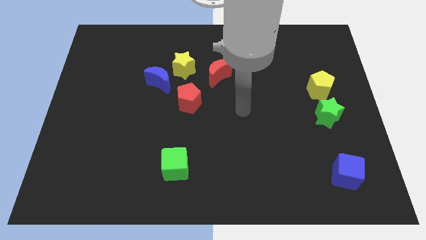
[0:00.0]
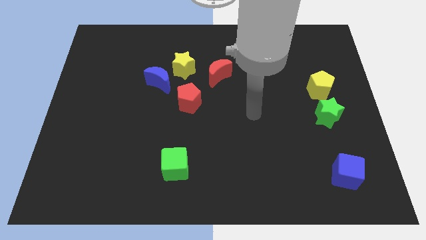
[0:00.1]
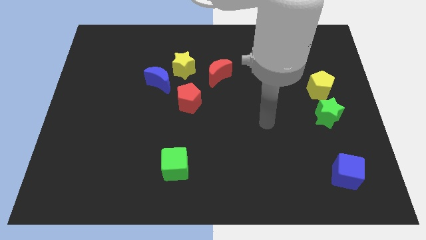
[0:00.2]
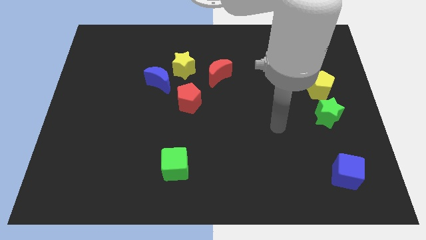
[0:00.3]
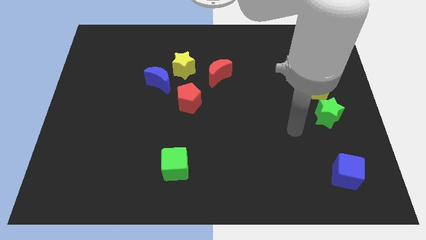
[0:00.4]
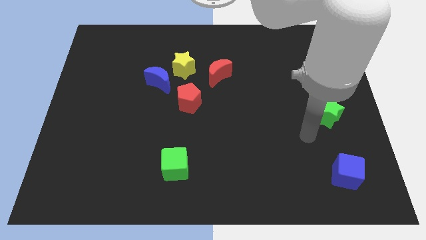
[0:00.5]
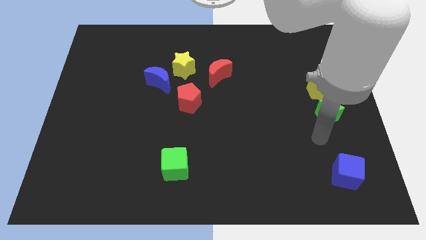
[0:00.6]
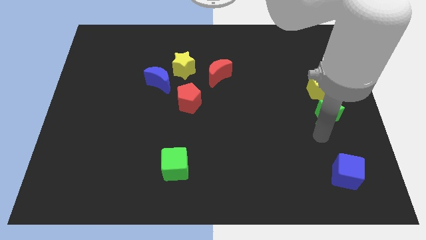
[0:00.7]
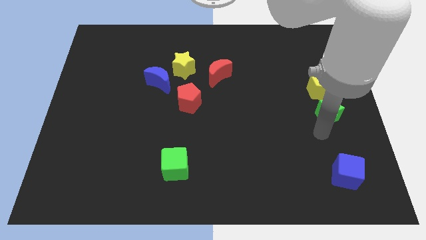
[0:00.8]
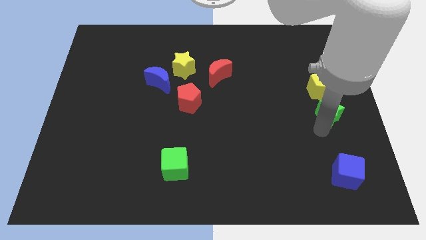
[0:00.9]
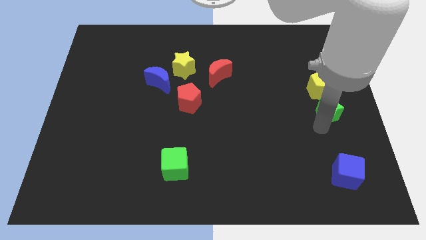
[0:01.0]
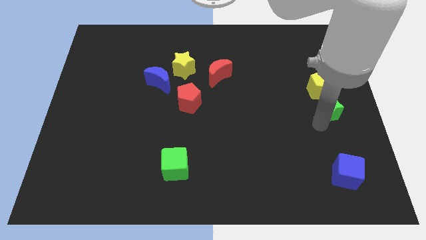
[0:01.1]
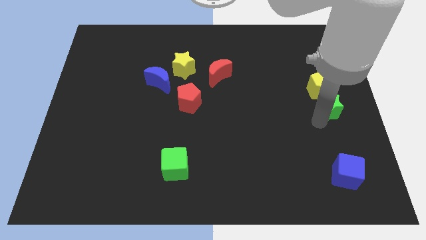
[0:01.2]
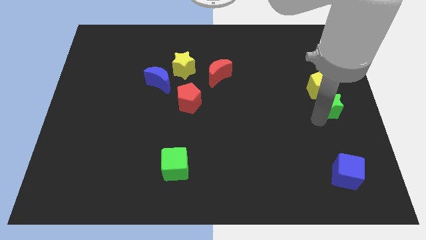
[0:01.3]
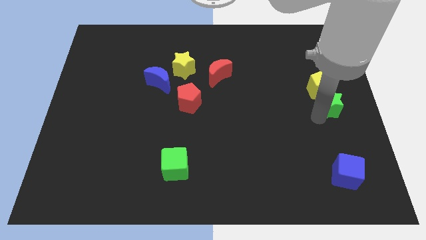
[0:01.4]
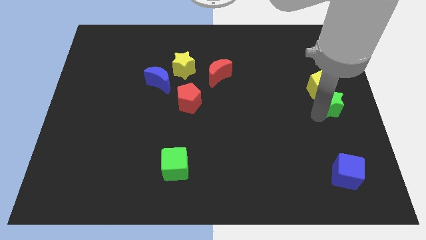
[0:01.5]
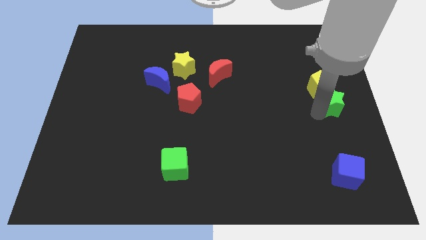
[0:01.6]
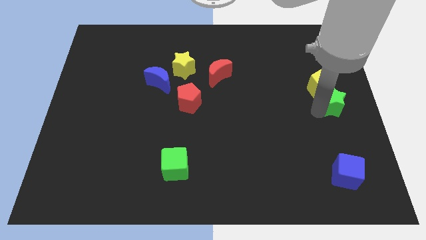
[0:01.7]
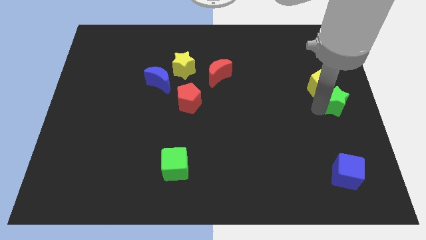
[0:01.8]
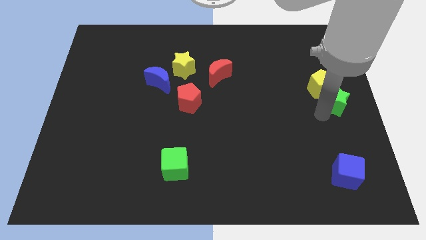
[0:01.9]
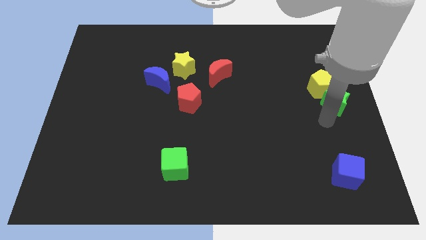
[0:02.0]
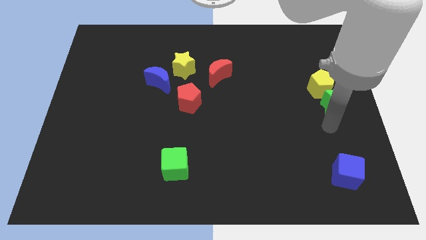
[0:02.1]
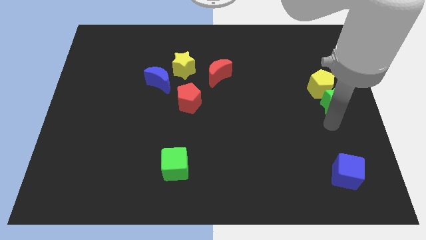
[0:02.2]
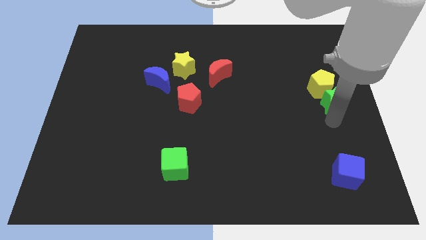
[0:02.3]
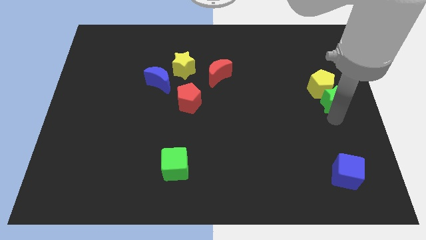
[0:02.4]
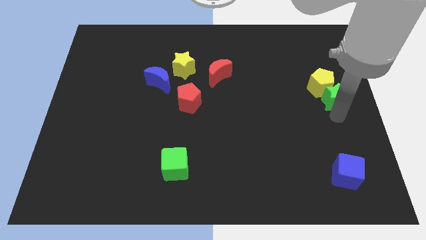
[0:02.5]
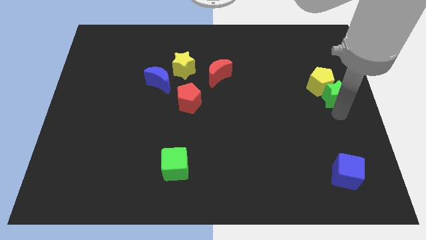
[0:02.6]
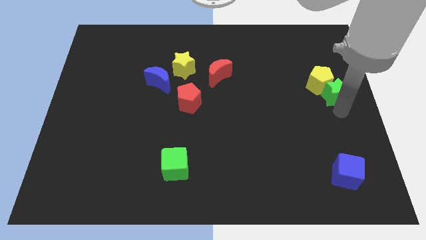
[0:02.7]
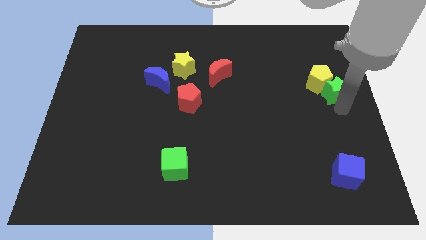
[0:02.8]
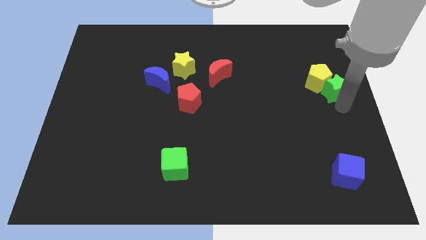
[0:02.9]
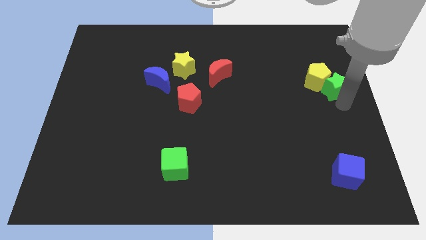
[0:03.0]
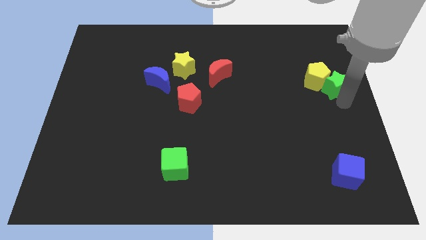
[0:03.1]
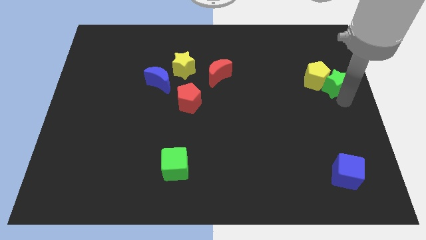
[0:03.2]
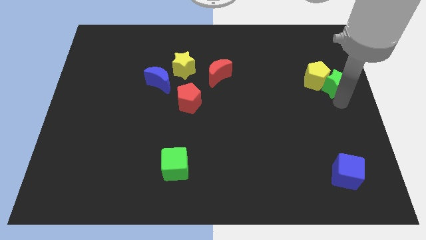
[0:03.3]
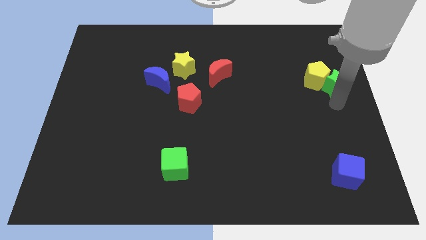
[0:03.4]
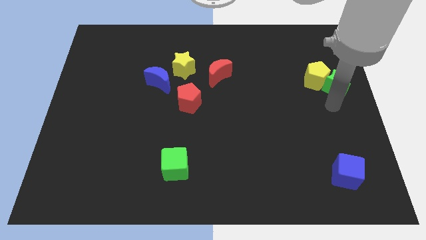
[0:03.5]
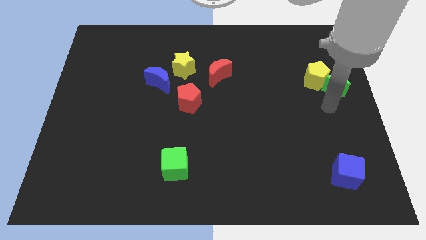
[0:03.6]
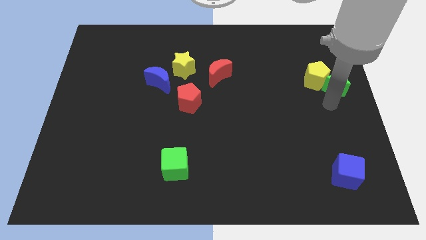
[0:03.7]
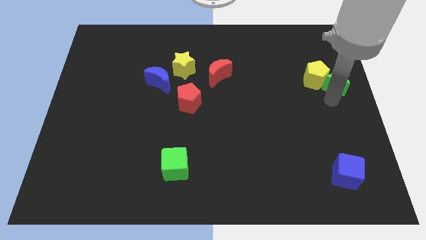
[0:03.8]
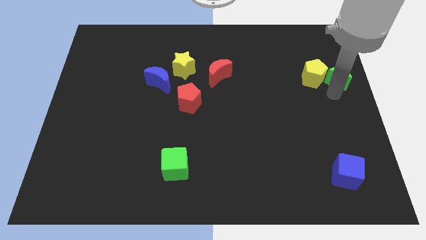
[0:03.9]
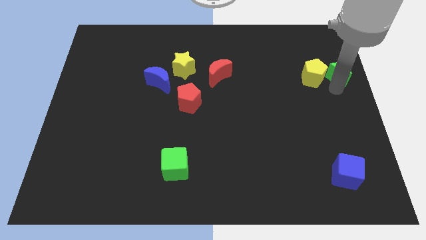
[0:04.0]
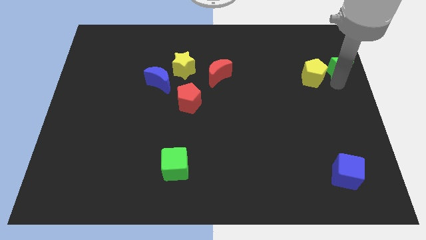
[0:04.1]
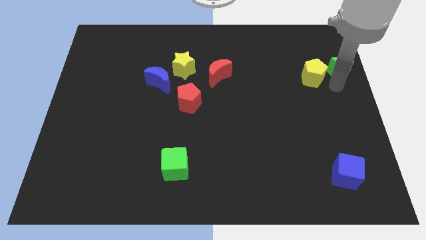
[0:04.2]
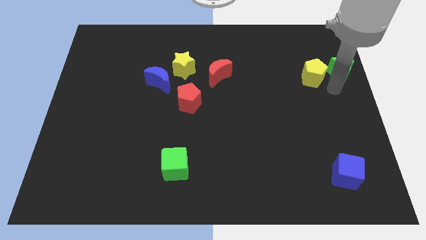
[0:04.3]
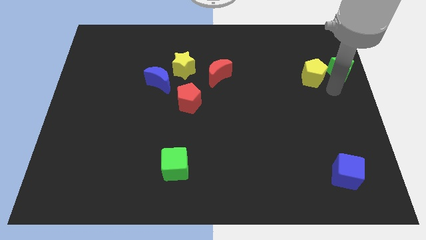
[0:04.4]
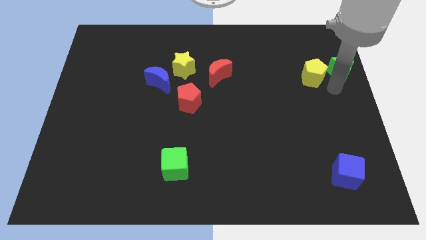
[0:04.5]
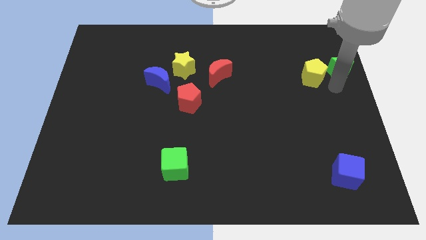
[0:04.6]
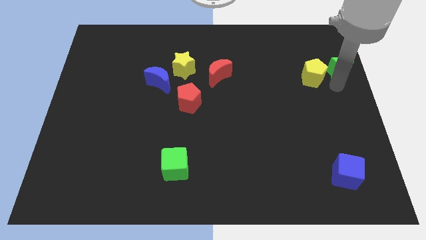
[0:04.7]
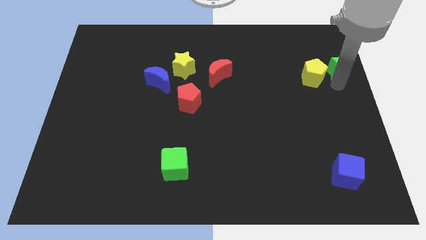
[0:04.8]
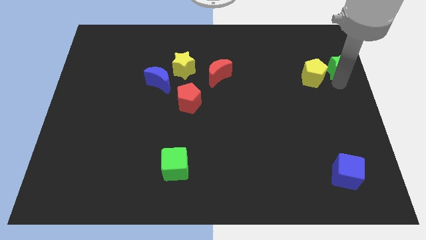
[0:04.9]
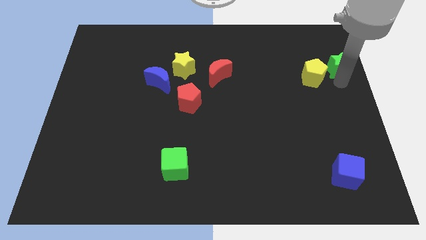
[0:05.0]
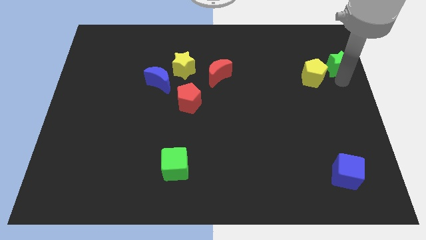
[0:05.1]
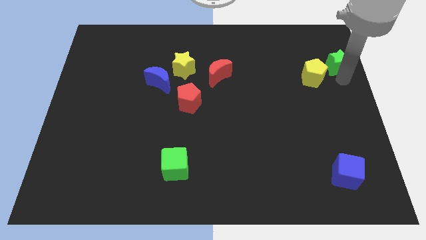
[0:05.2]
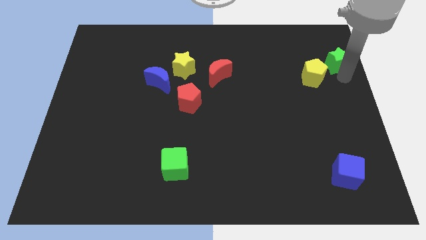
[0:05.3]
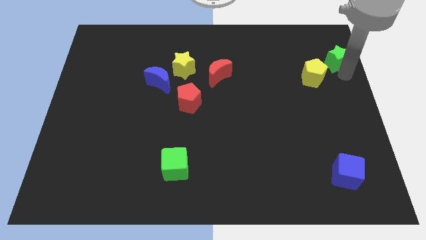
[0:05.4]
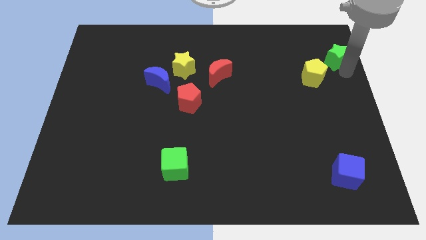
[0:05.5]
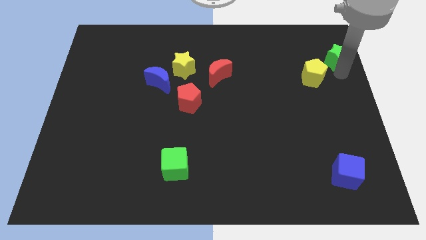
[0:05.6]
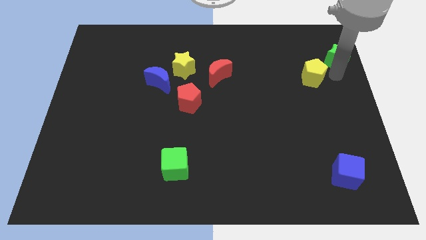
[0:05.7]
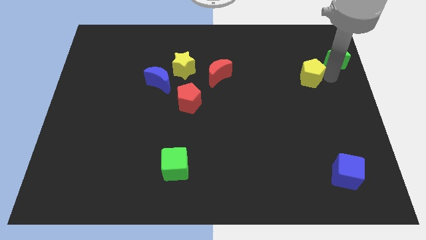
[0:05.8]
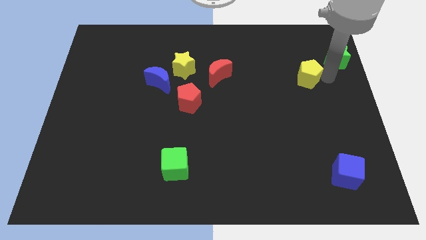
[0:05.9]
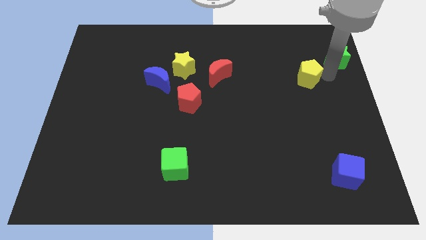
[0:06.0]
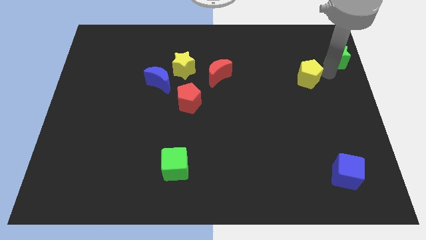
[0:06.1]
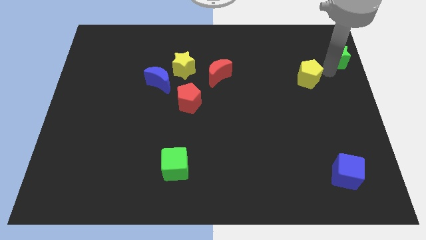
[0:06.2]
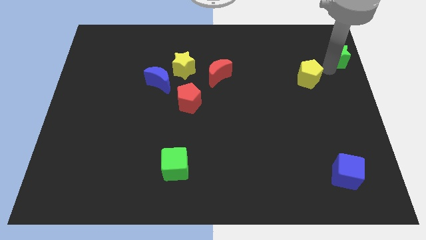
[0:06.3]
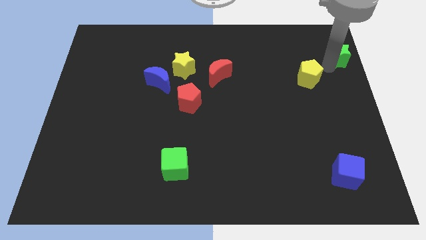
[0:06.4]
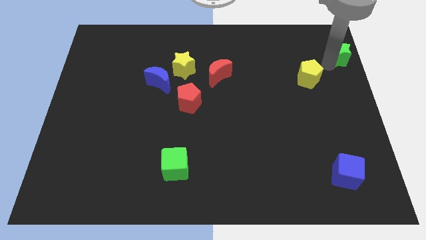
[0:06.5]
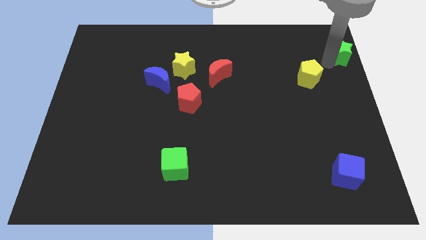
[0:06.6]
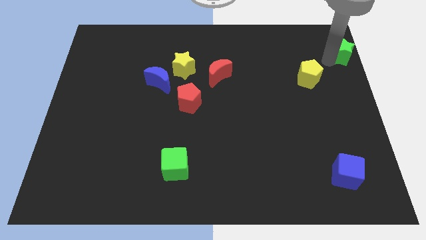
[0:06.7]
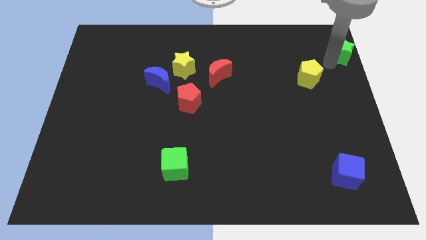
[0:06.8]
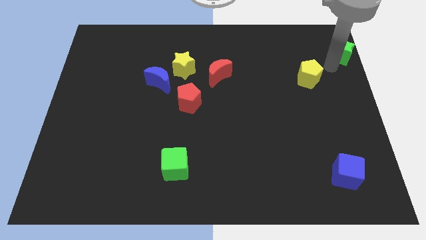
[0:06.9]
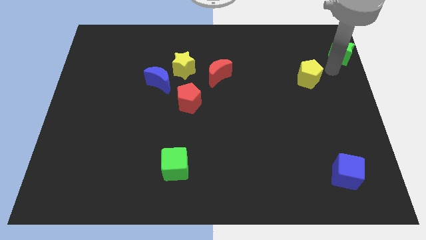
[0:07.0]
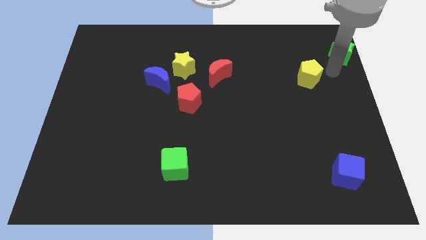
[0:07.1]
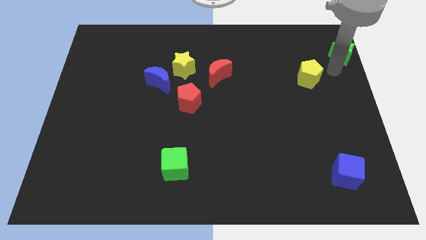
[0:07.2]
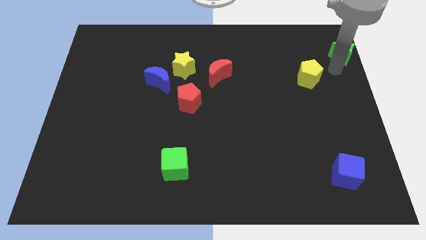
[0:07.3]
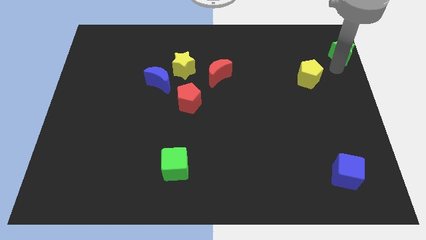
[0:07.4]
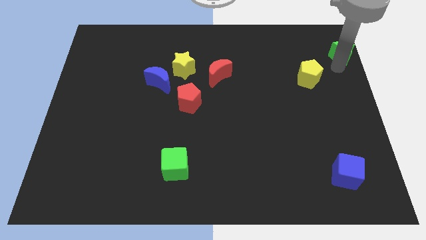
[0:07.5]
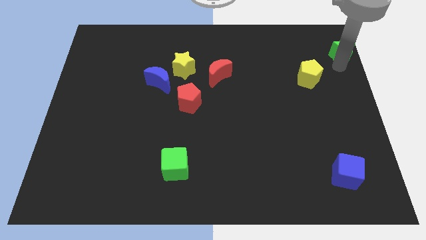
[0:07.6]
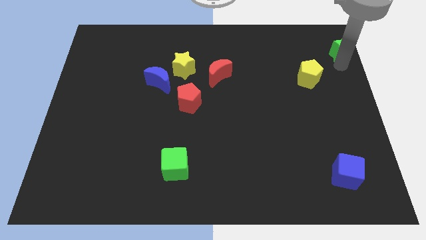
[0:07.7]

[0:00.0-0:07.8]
slide the green star to the top right of the board
